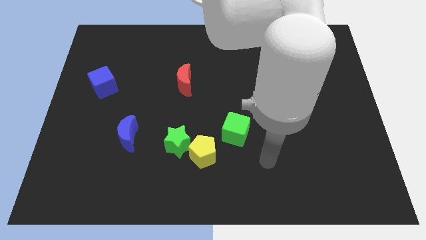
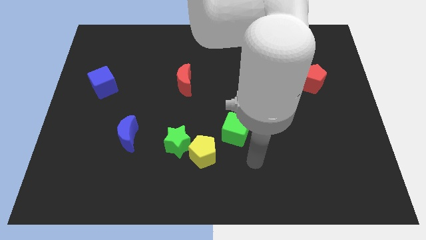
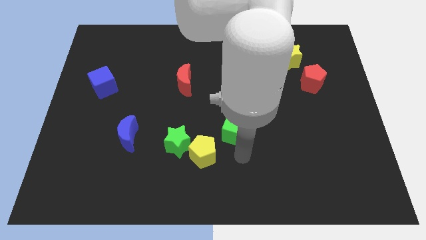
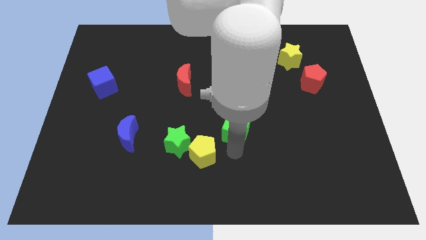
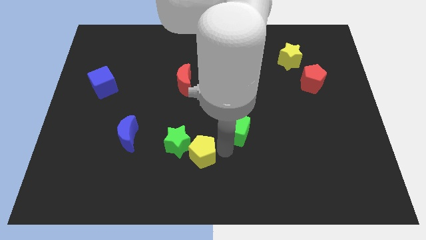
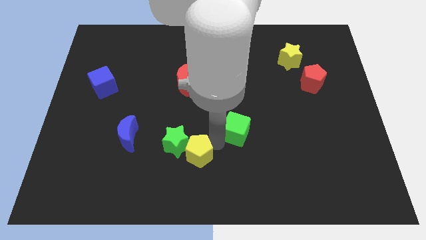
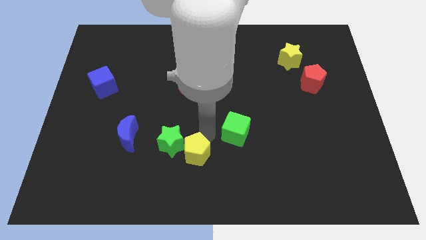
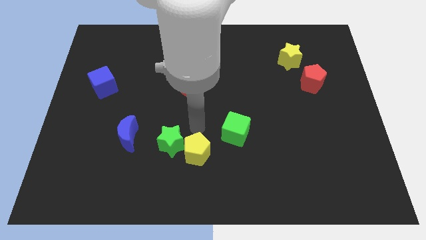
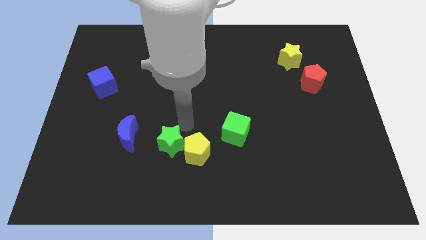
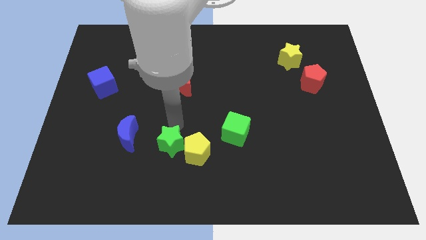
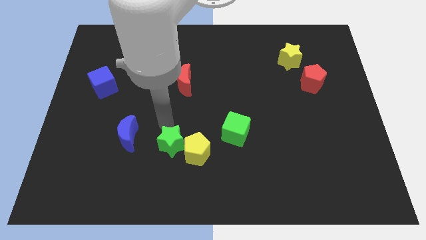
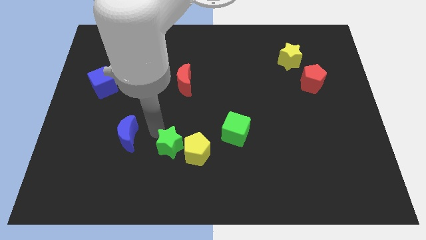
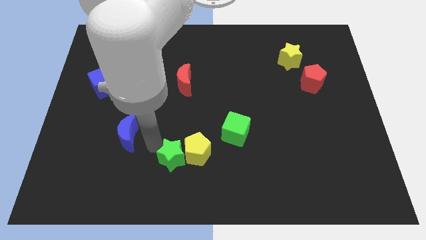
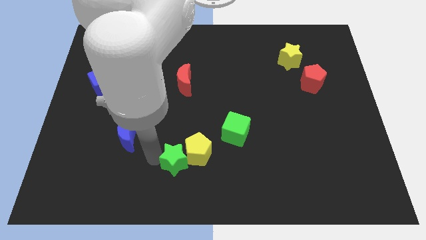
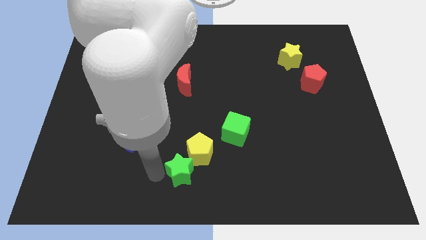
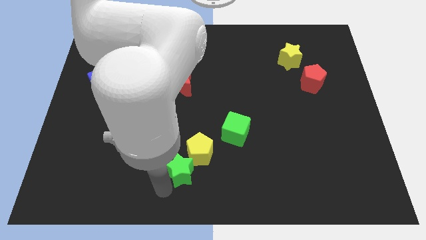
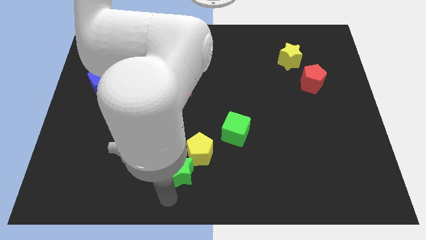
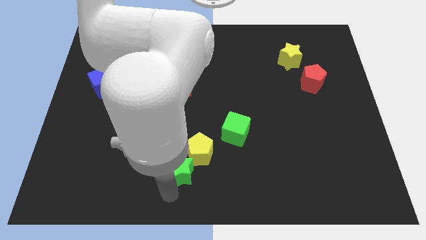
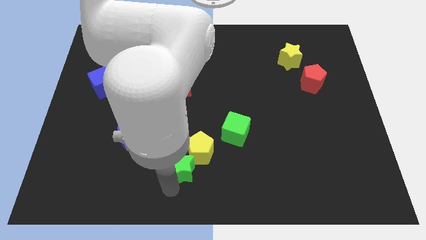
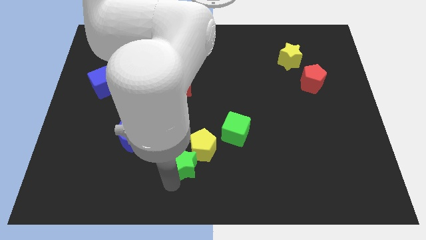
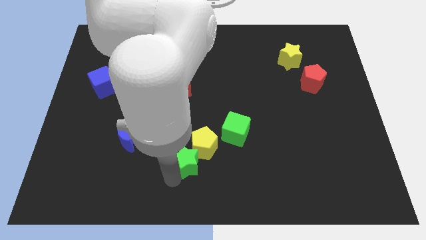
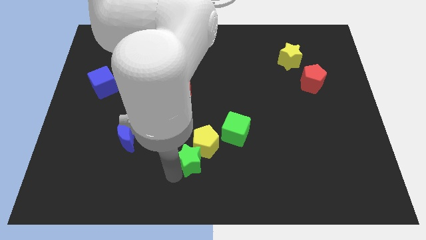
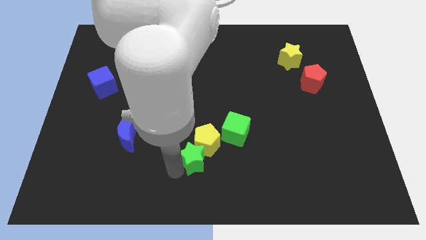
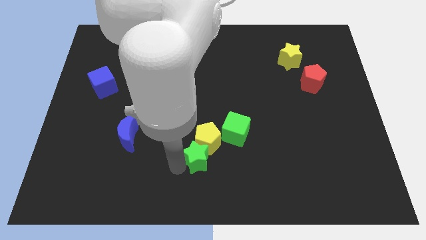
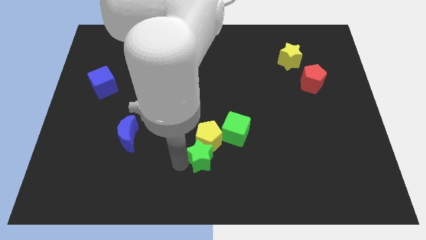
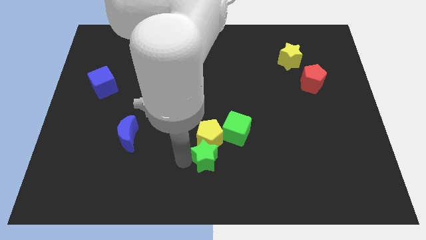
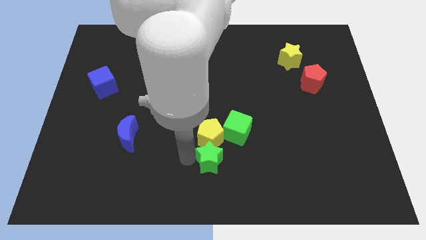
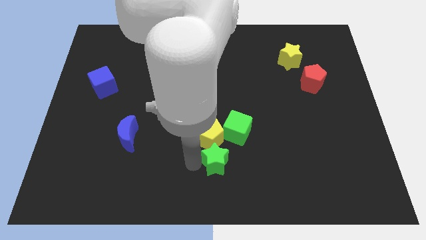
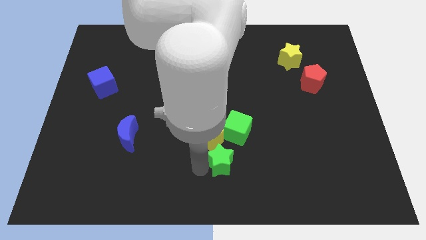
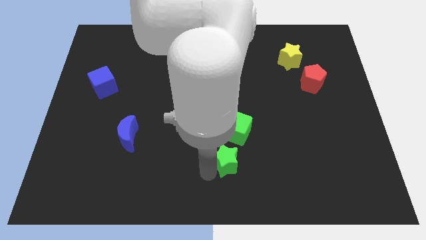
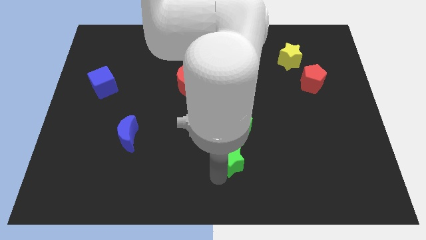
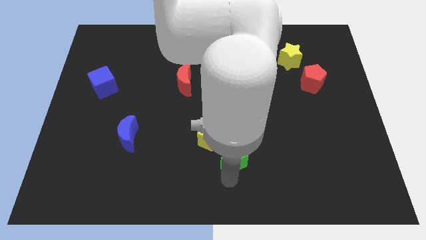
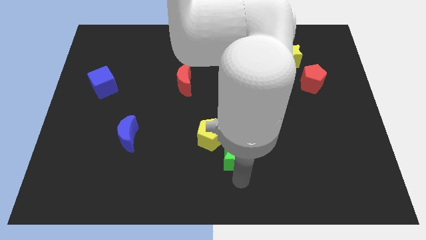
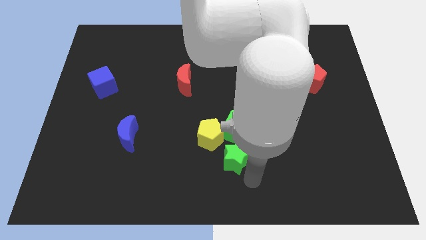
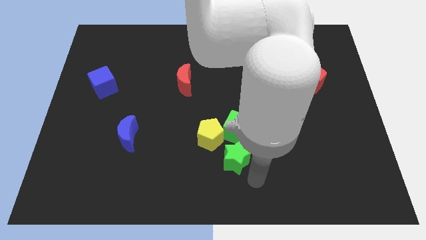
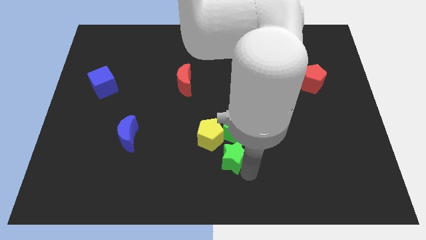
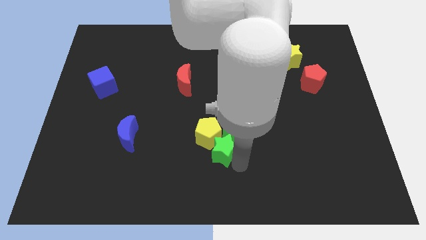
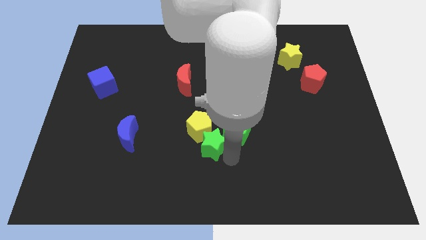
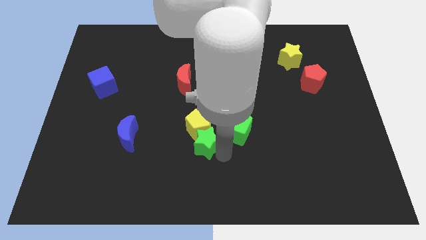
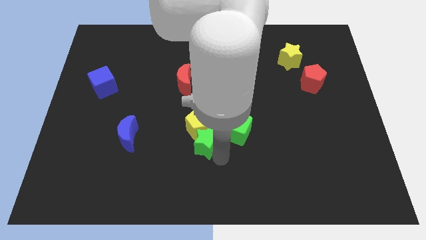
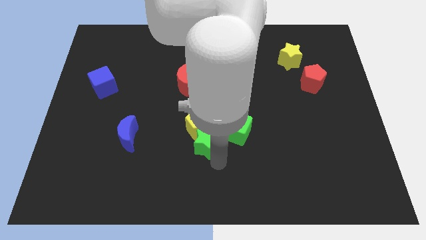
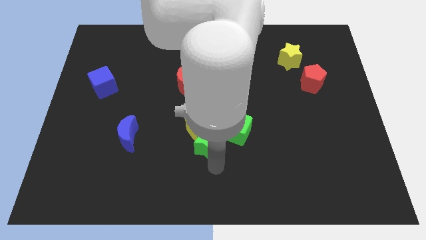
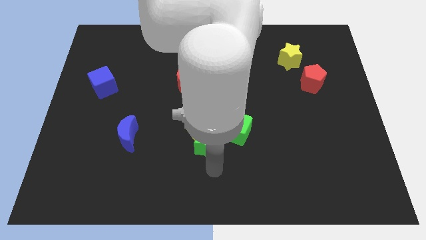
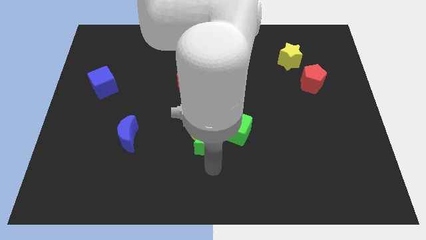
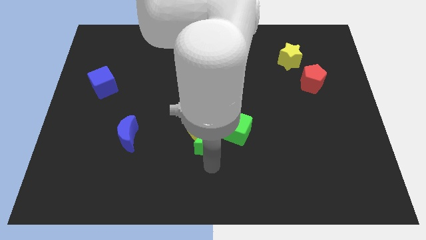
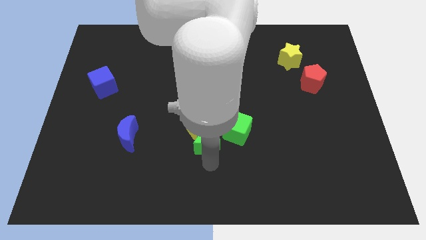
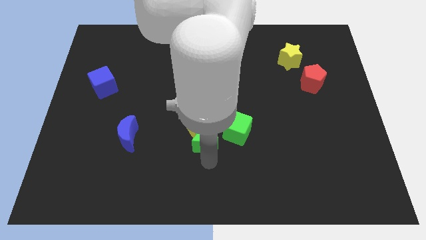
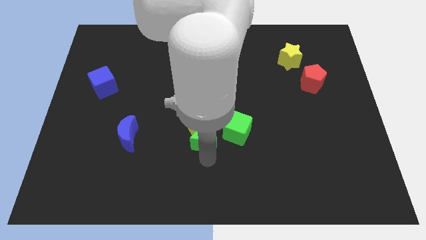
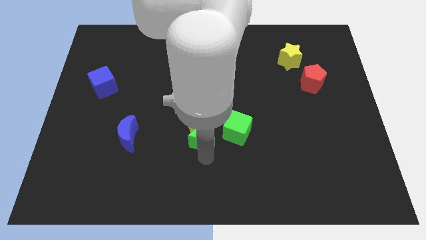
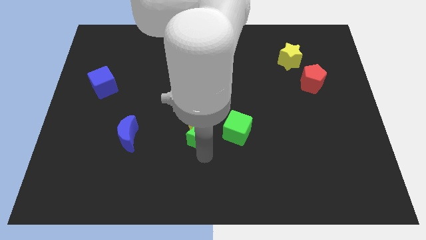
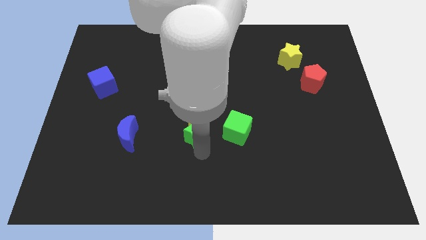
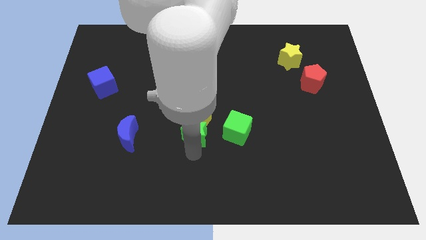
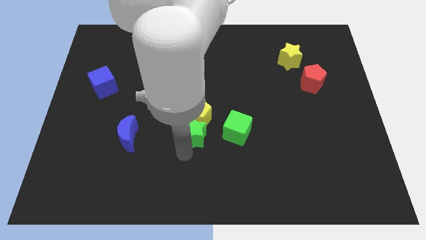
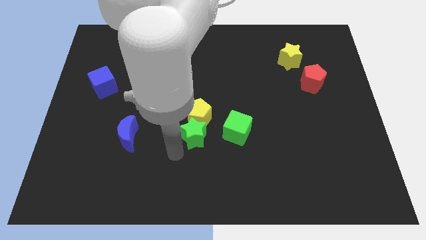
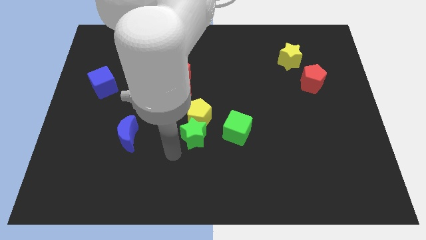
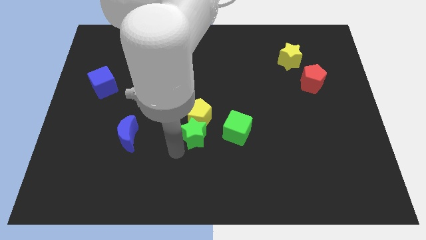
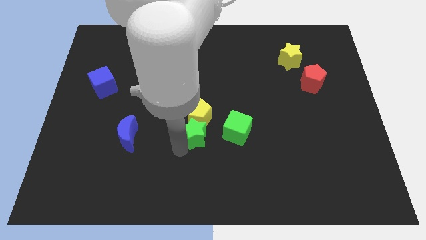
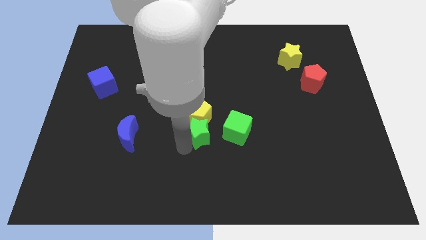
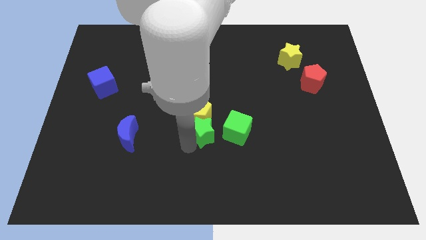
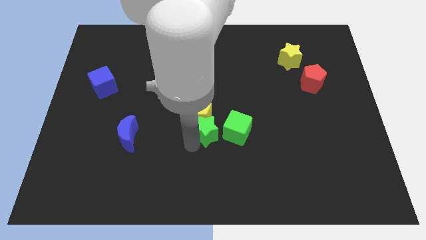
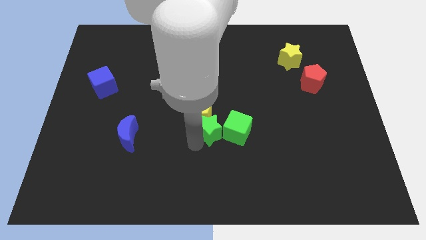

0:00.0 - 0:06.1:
push the green star diagonally up and to the right somewhat

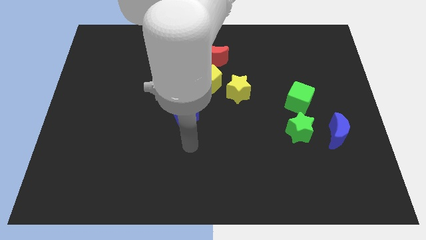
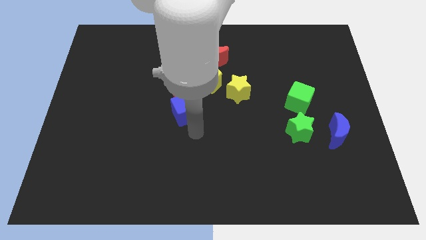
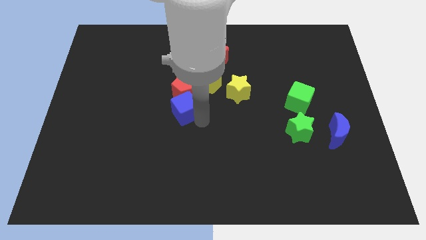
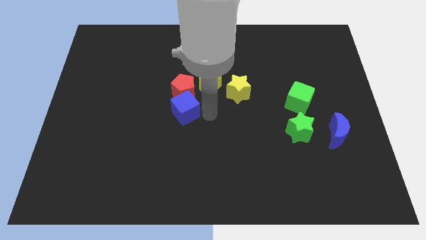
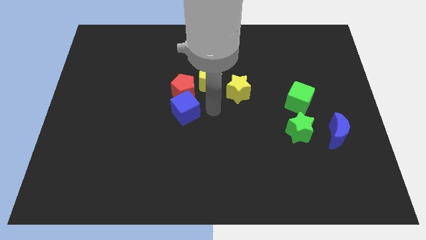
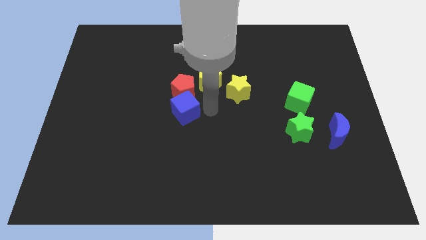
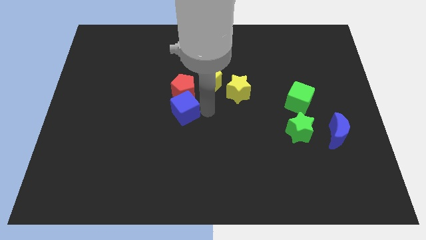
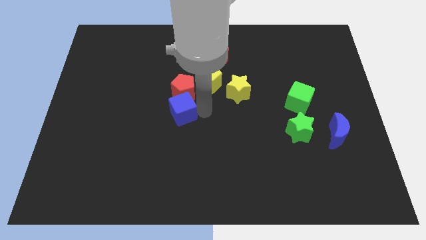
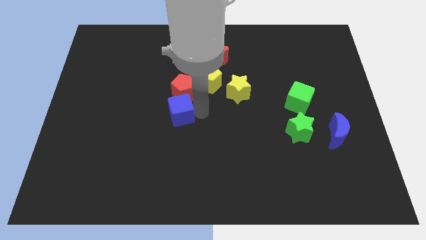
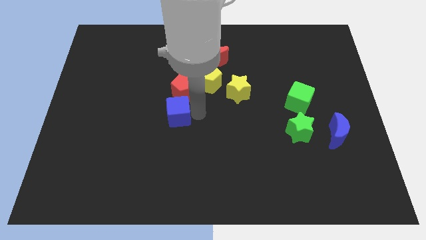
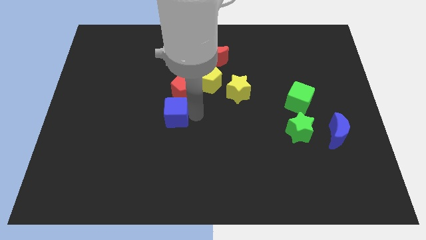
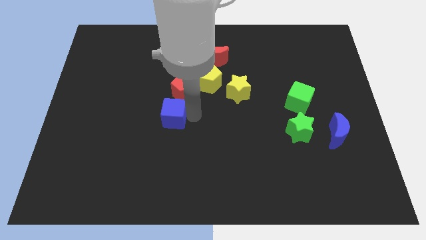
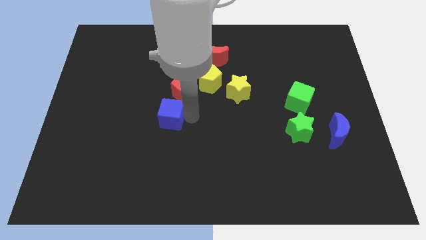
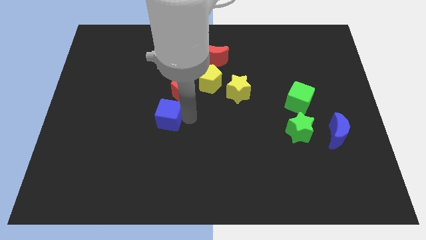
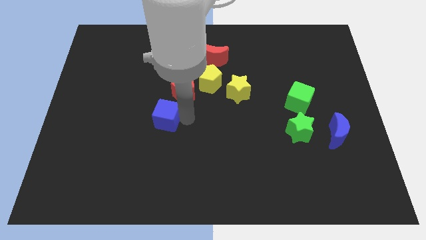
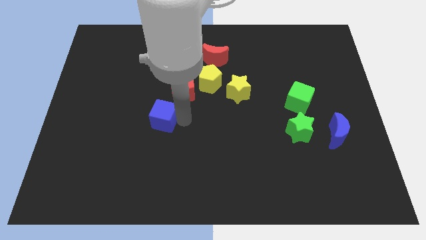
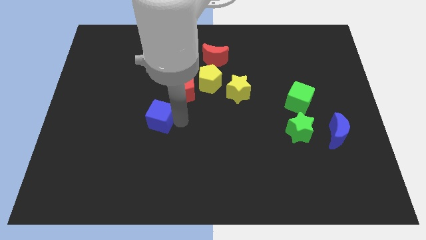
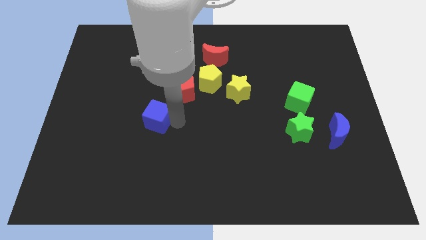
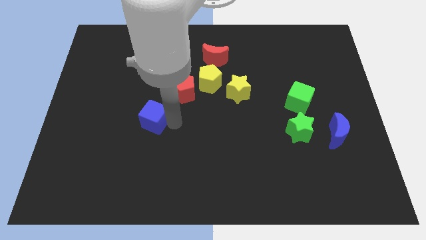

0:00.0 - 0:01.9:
move the blue cube left a little
